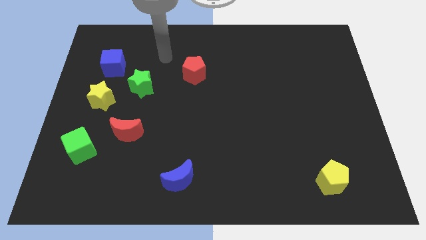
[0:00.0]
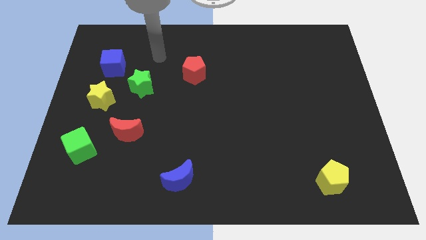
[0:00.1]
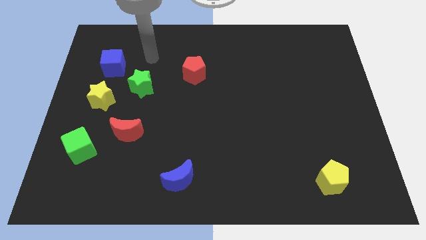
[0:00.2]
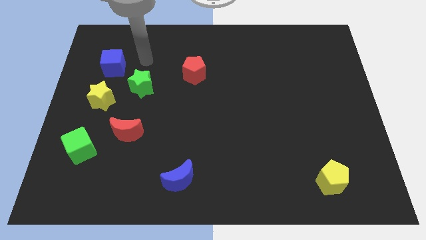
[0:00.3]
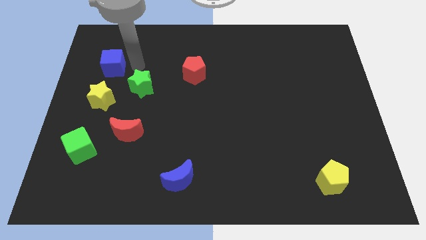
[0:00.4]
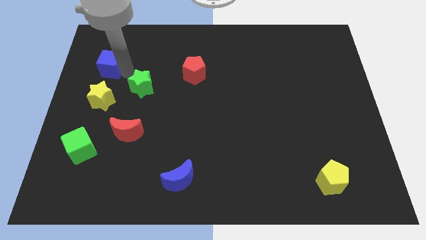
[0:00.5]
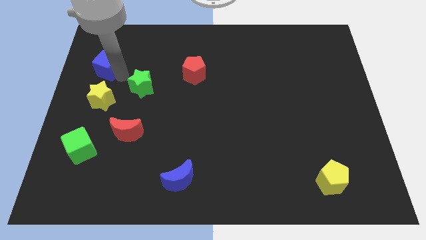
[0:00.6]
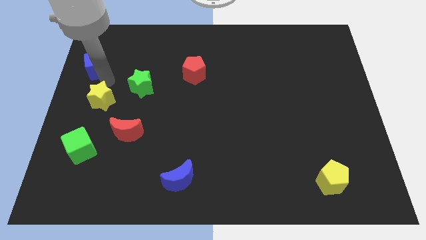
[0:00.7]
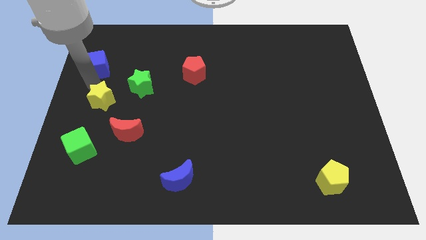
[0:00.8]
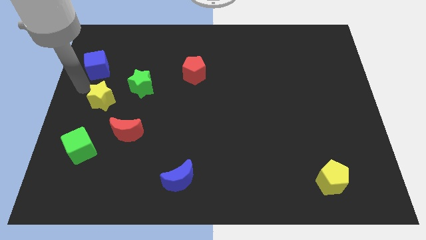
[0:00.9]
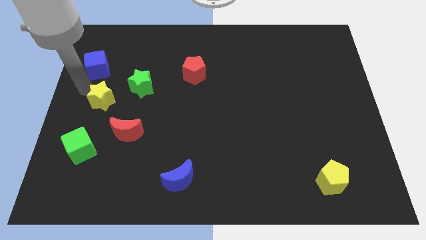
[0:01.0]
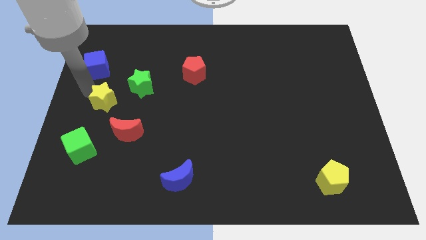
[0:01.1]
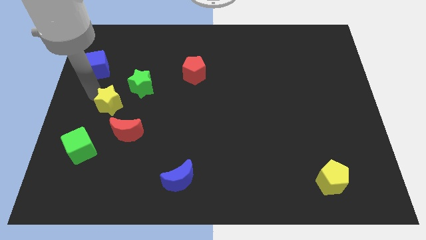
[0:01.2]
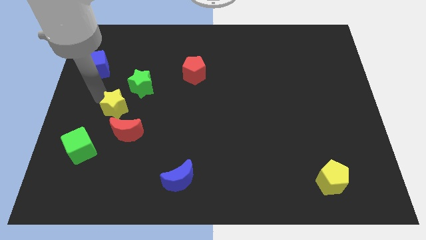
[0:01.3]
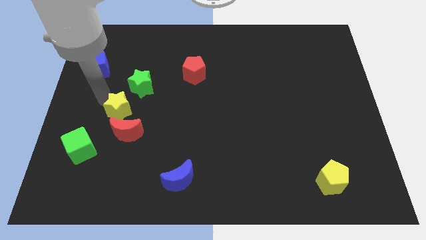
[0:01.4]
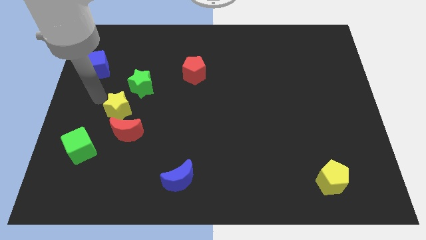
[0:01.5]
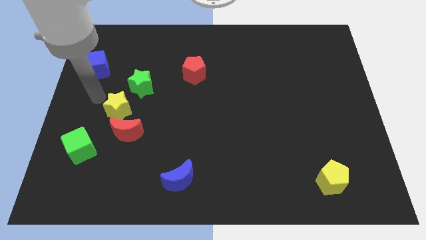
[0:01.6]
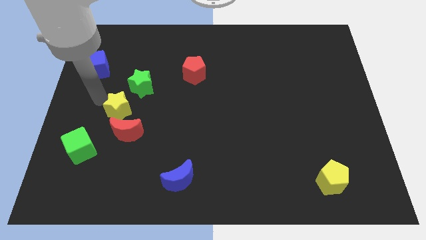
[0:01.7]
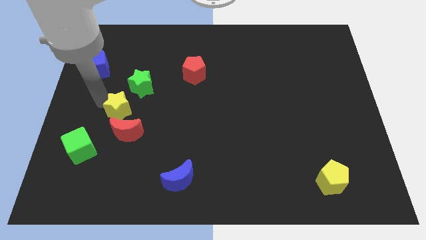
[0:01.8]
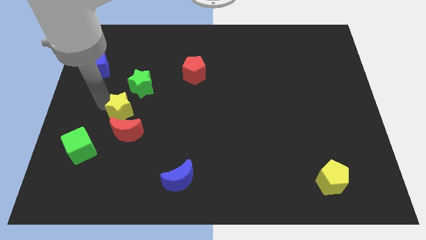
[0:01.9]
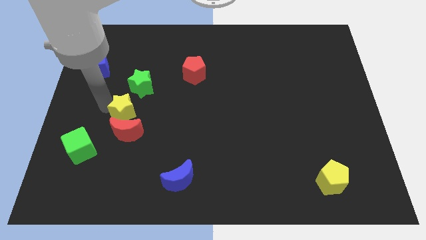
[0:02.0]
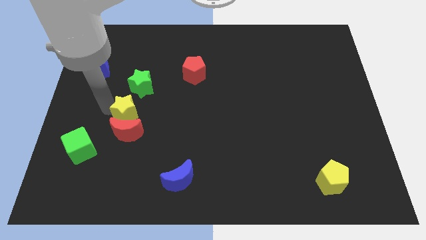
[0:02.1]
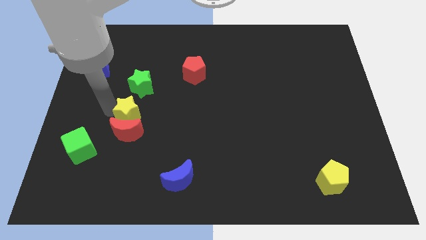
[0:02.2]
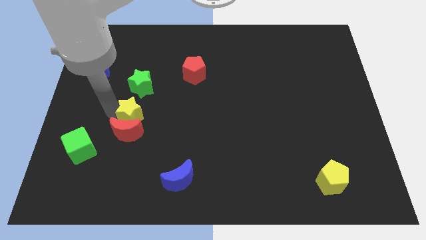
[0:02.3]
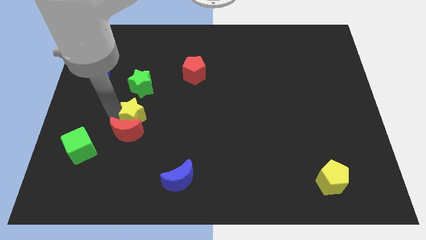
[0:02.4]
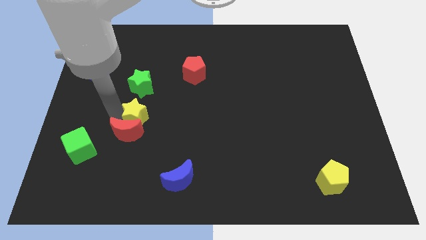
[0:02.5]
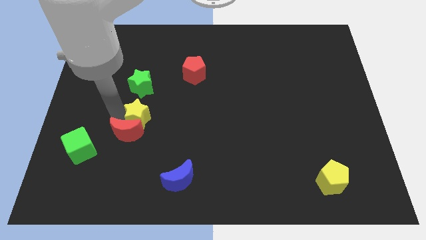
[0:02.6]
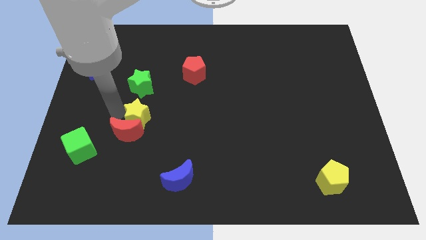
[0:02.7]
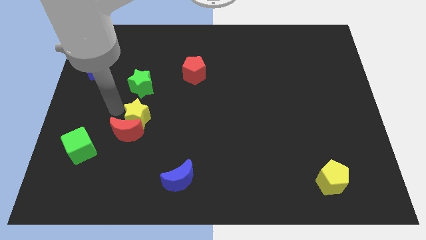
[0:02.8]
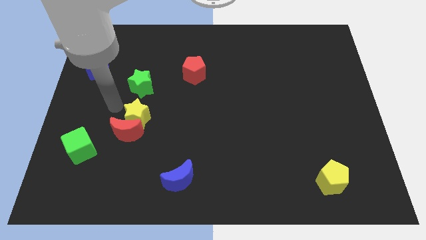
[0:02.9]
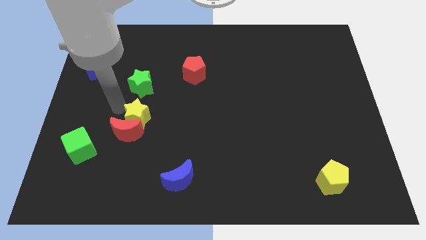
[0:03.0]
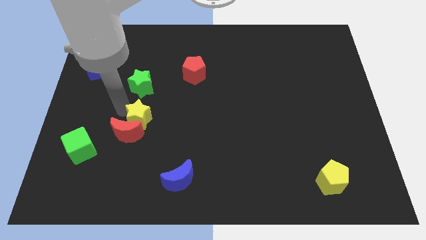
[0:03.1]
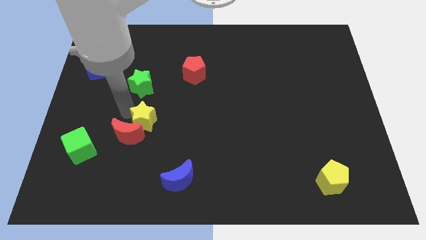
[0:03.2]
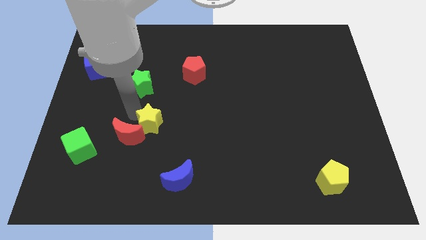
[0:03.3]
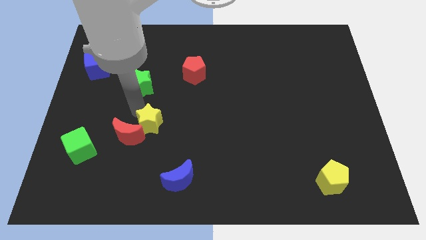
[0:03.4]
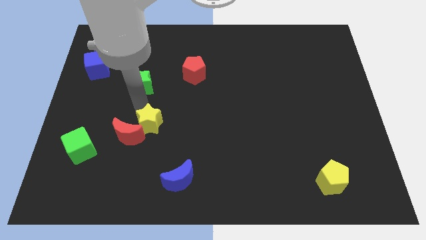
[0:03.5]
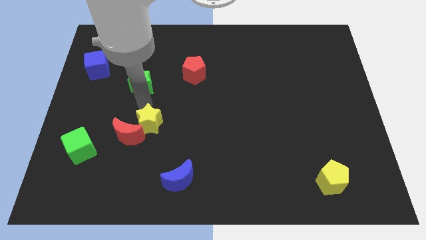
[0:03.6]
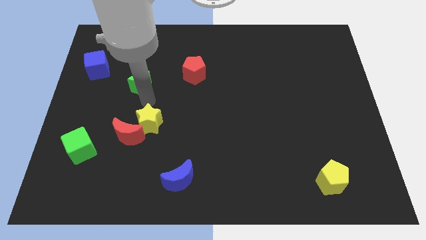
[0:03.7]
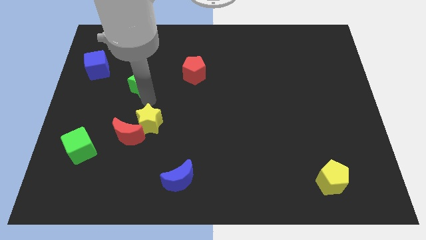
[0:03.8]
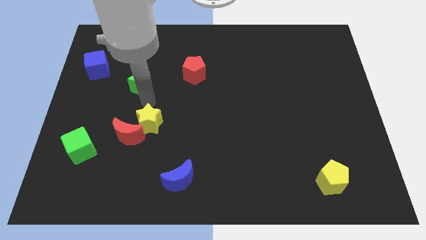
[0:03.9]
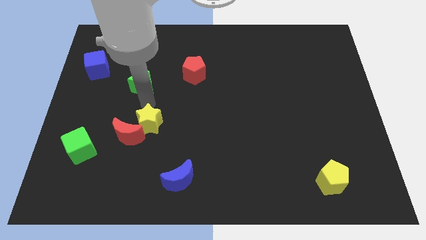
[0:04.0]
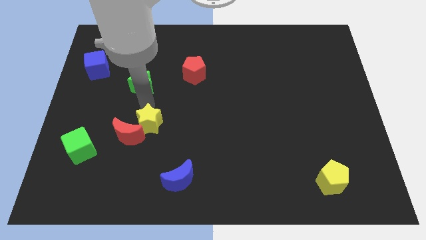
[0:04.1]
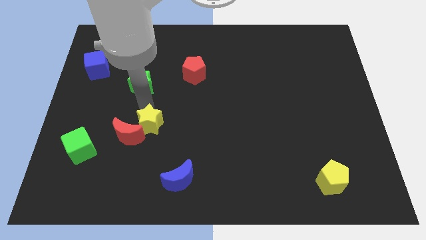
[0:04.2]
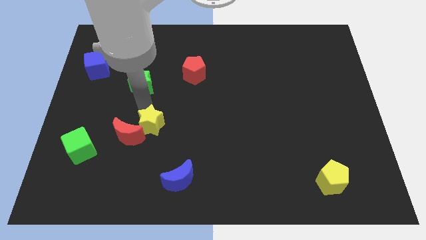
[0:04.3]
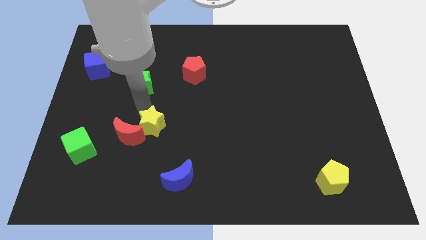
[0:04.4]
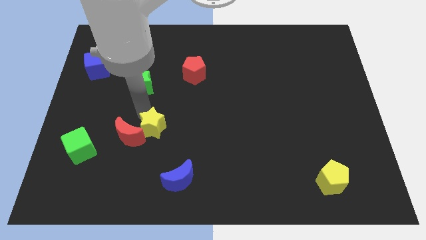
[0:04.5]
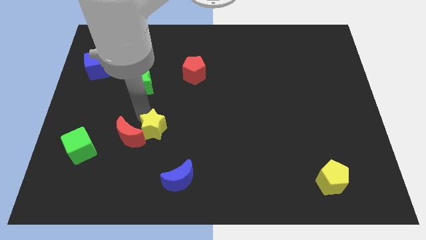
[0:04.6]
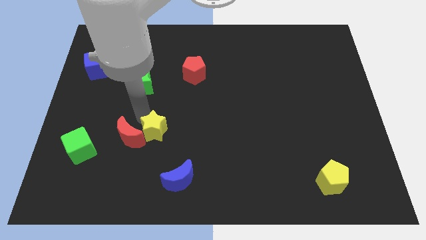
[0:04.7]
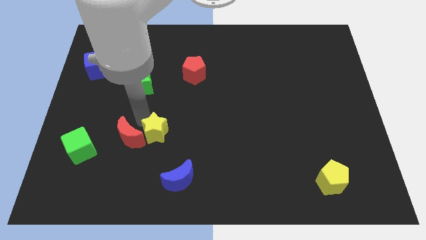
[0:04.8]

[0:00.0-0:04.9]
slide the yellow star diagonally down and to the right of the red moon

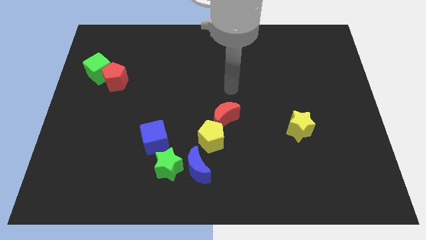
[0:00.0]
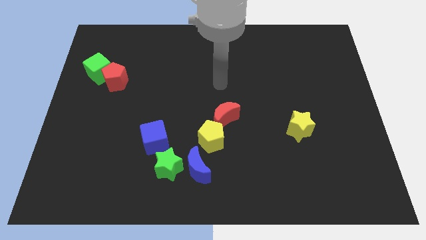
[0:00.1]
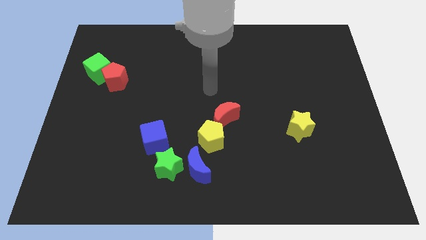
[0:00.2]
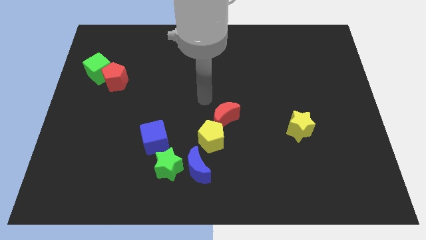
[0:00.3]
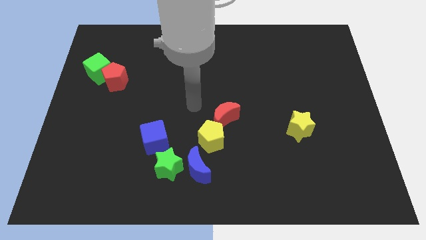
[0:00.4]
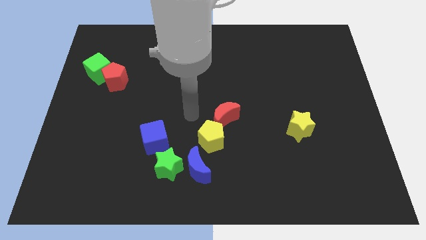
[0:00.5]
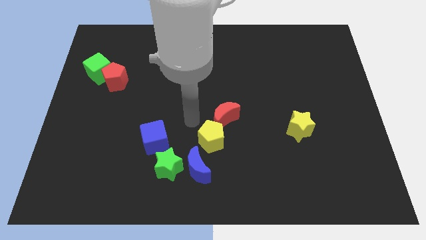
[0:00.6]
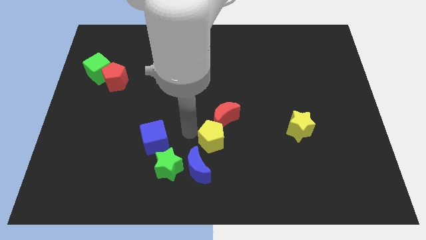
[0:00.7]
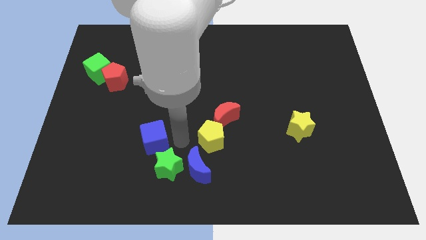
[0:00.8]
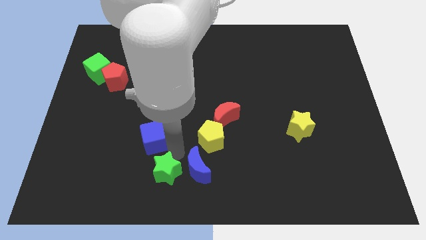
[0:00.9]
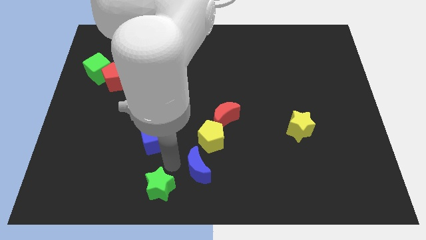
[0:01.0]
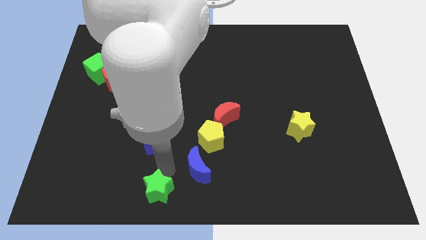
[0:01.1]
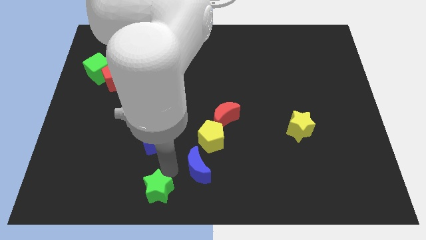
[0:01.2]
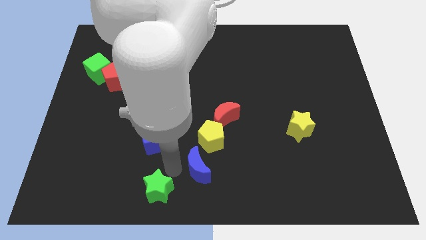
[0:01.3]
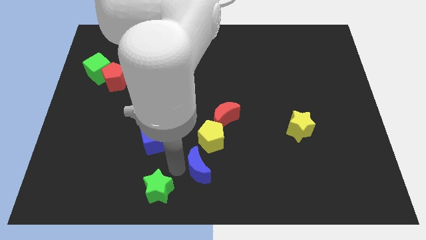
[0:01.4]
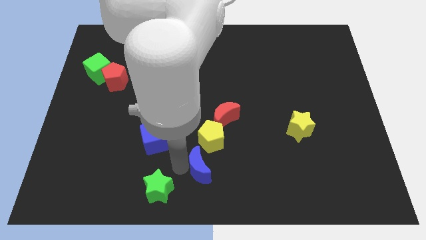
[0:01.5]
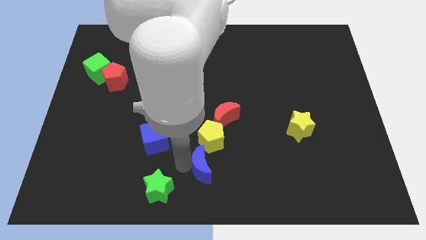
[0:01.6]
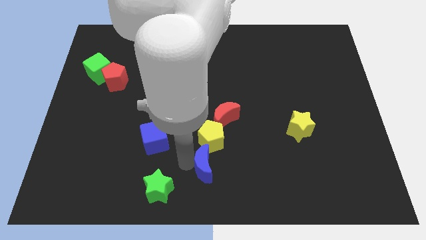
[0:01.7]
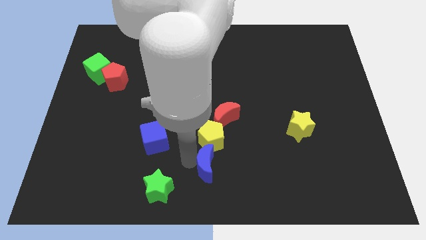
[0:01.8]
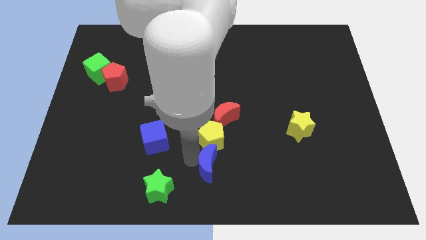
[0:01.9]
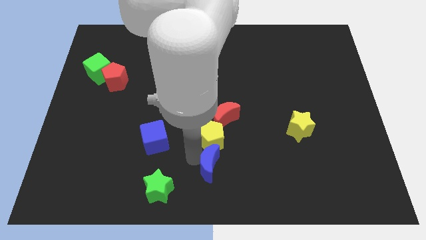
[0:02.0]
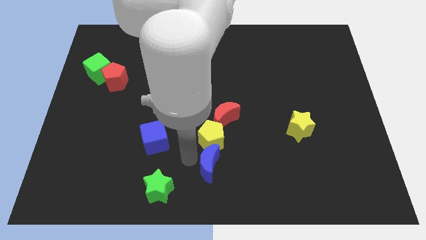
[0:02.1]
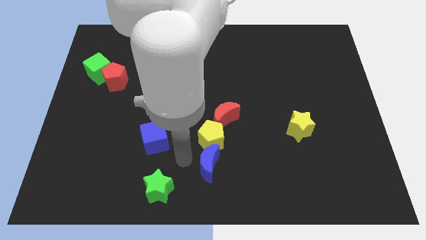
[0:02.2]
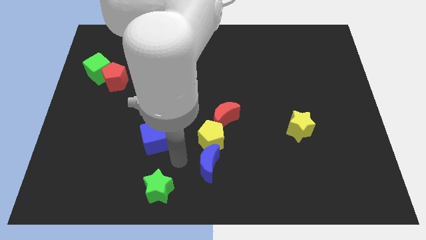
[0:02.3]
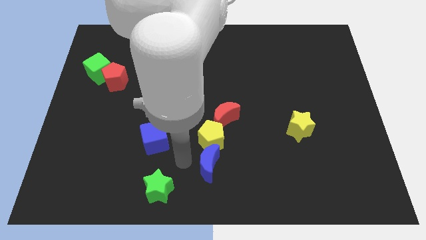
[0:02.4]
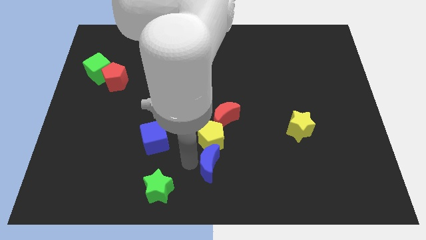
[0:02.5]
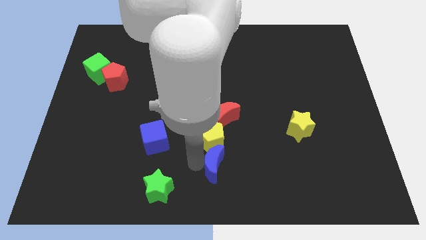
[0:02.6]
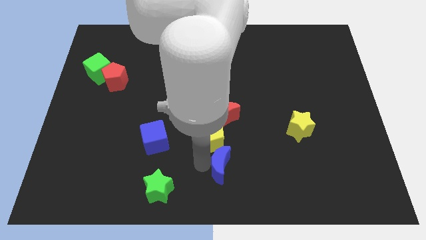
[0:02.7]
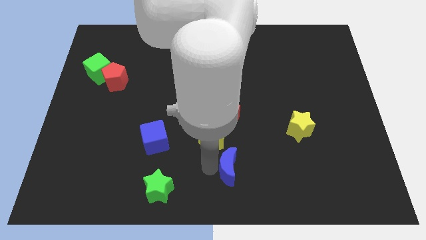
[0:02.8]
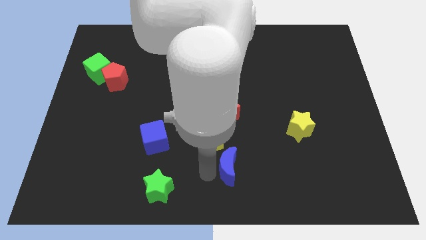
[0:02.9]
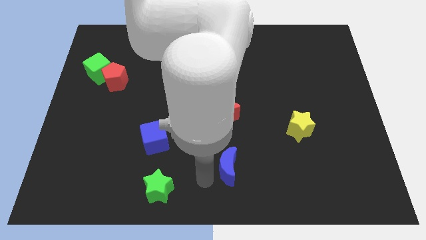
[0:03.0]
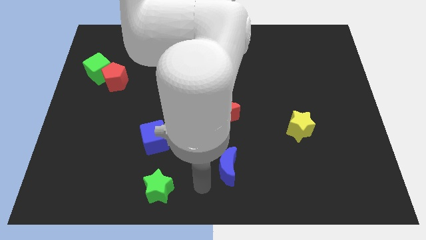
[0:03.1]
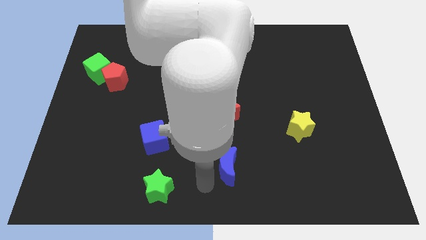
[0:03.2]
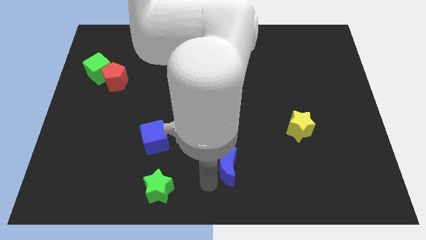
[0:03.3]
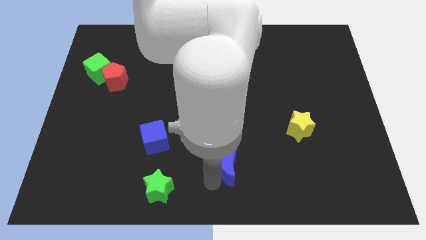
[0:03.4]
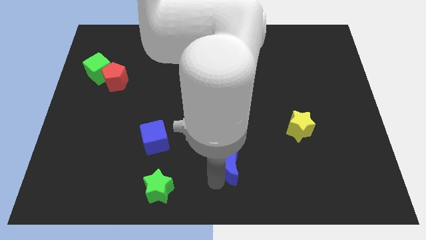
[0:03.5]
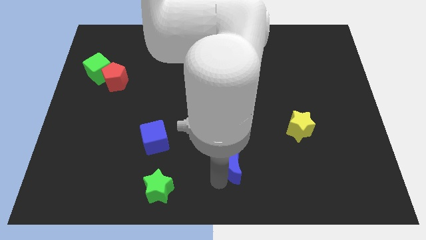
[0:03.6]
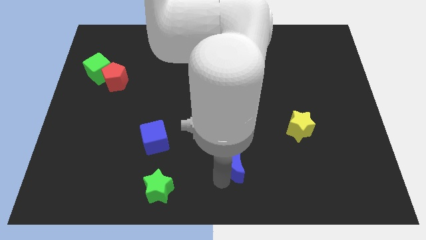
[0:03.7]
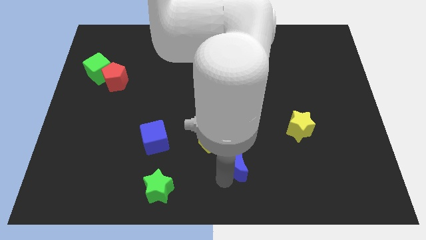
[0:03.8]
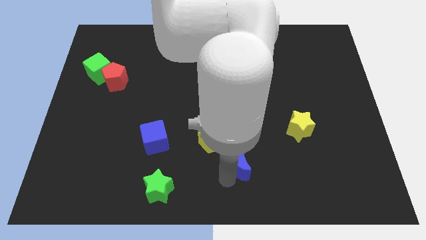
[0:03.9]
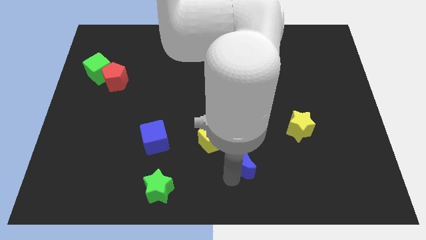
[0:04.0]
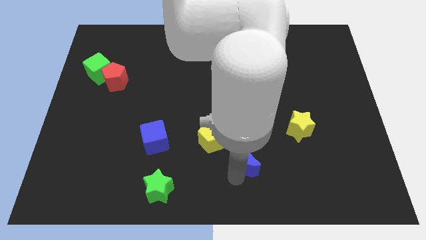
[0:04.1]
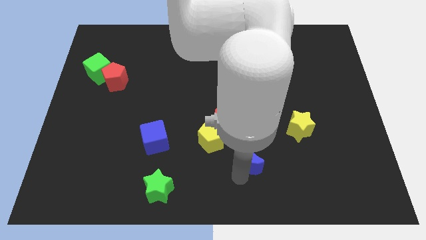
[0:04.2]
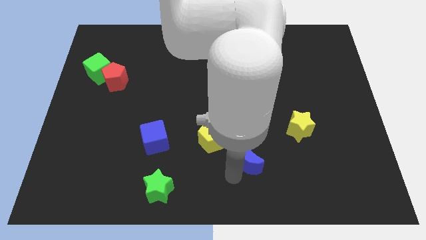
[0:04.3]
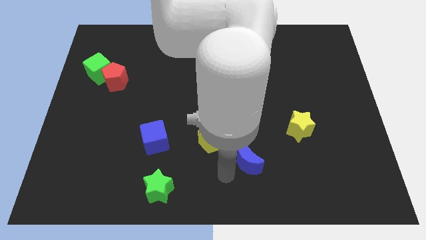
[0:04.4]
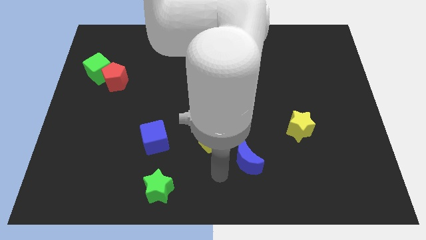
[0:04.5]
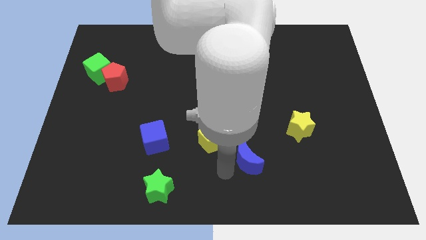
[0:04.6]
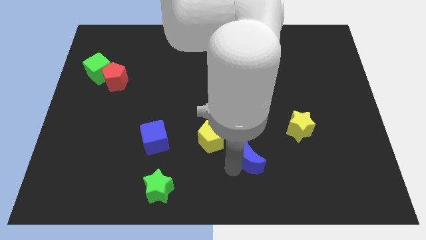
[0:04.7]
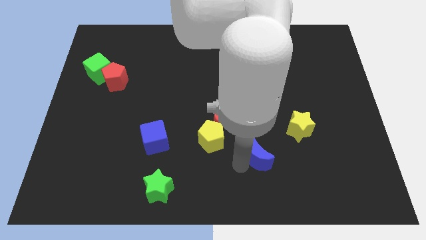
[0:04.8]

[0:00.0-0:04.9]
put the blue moon to the bottom left of the yellow star
